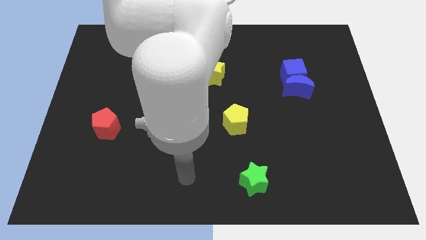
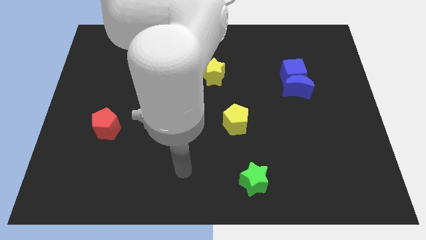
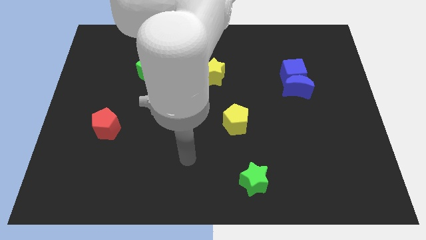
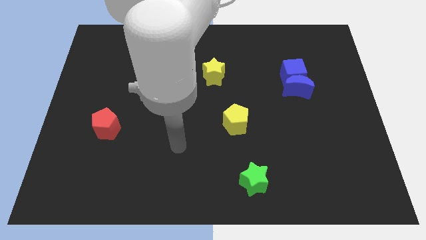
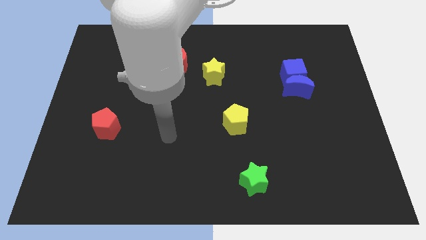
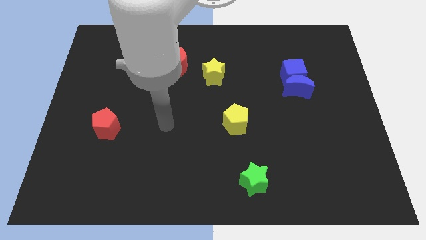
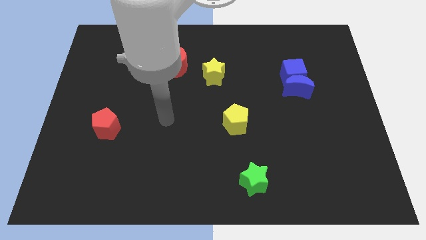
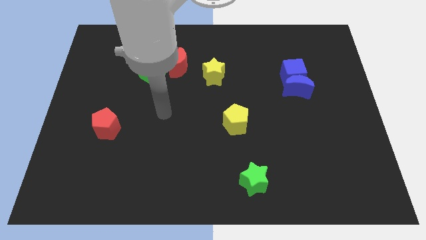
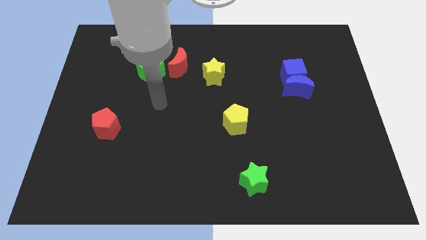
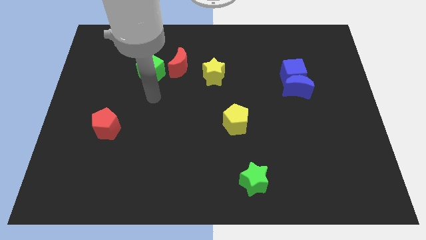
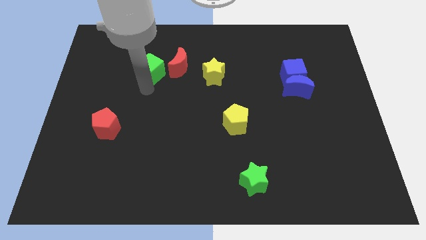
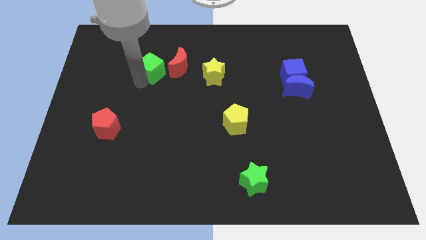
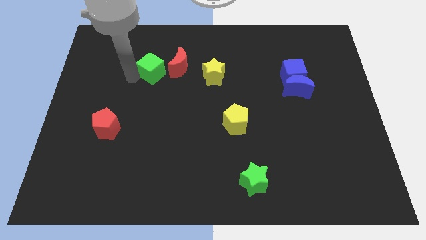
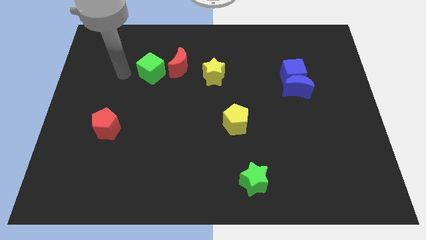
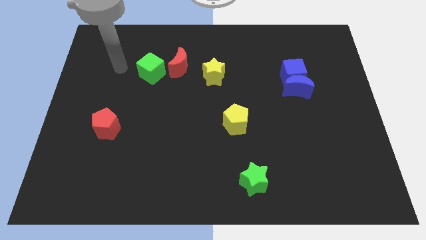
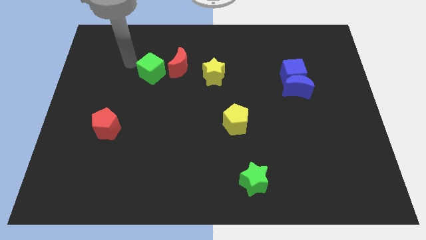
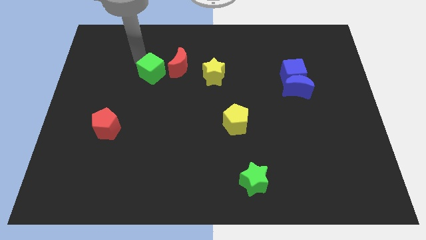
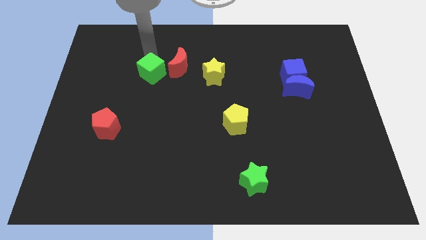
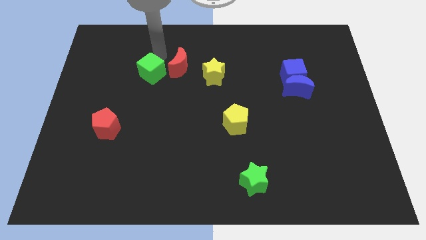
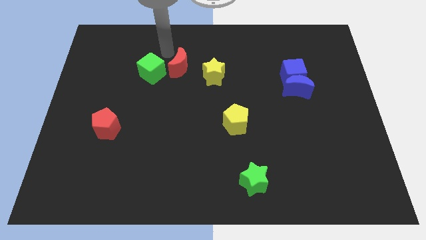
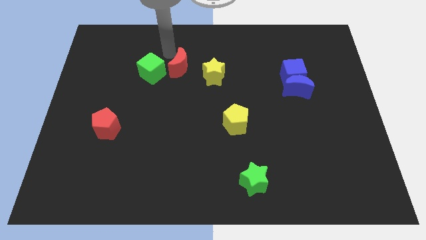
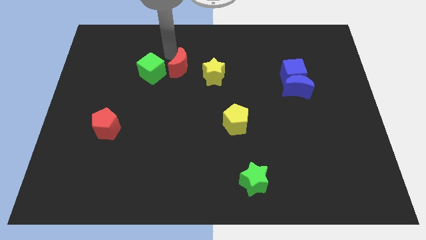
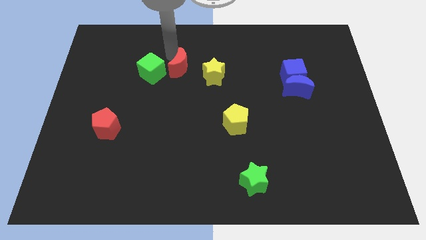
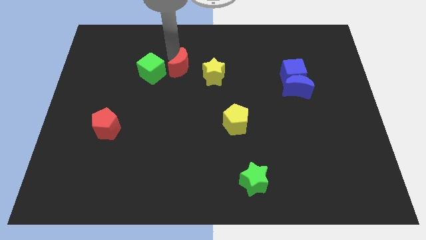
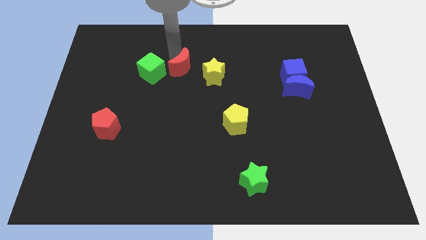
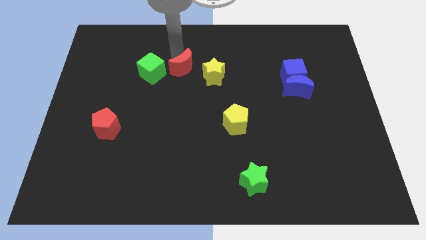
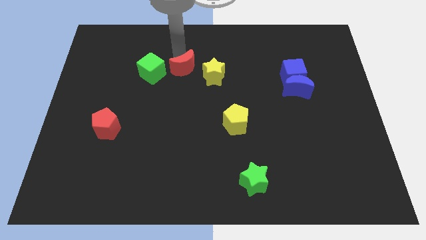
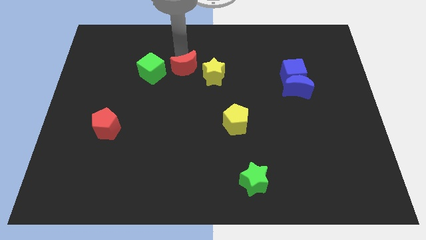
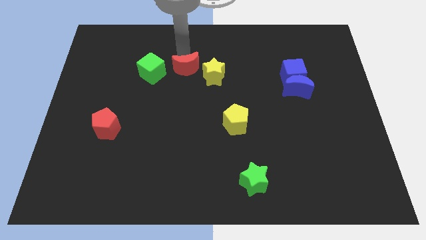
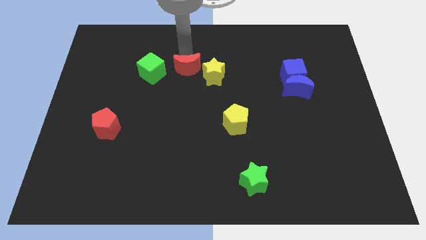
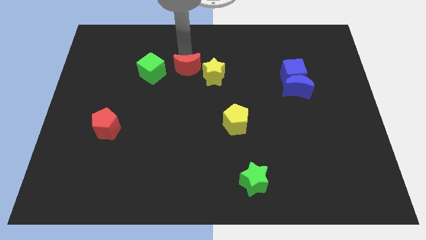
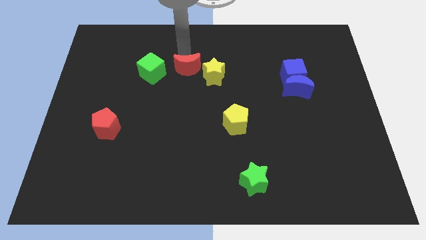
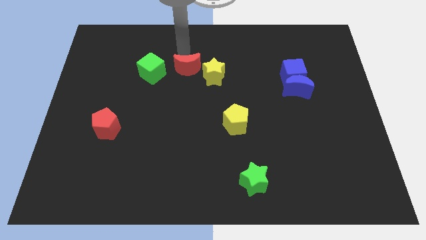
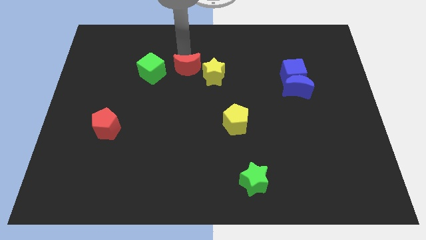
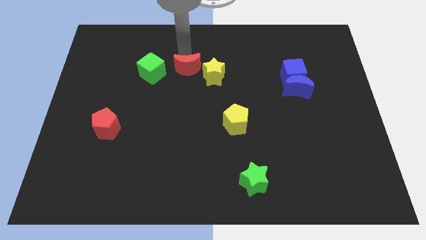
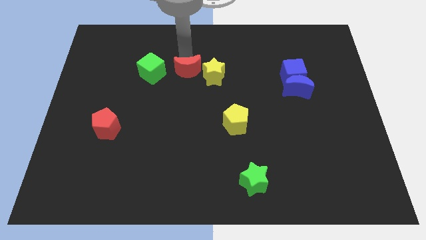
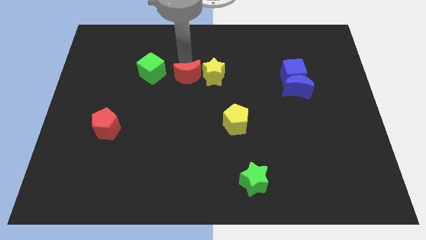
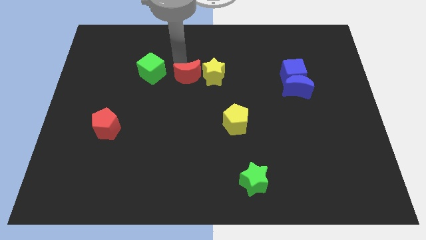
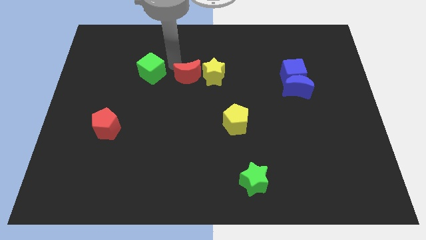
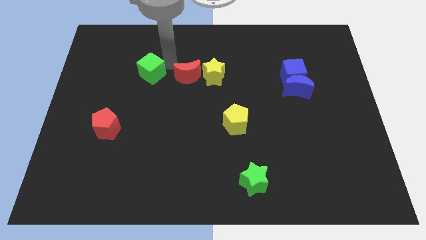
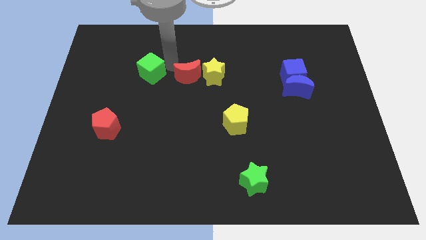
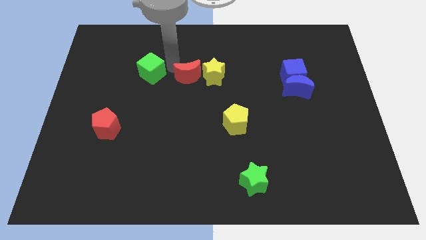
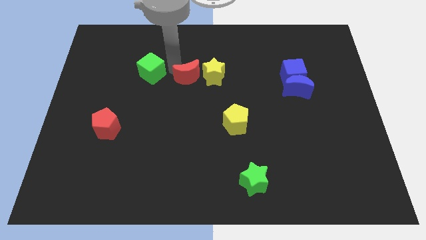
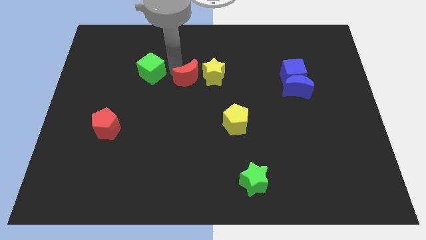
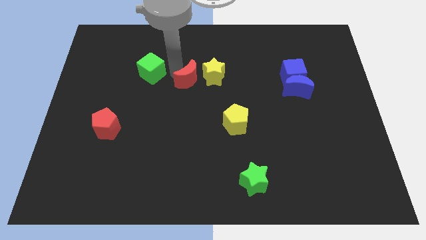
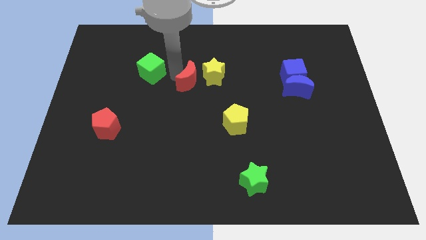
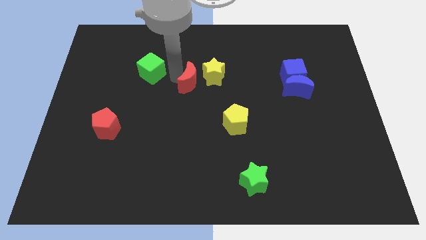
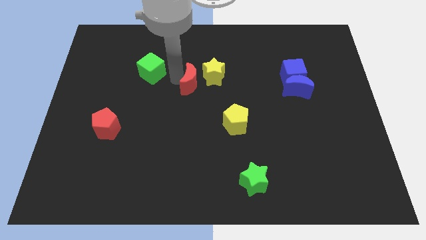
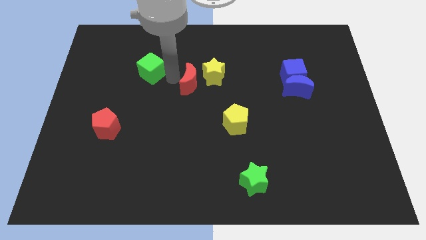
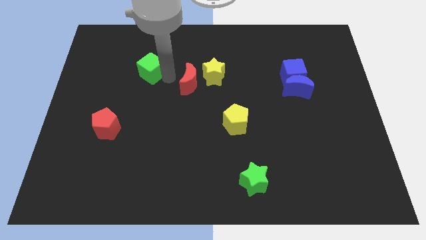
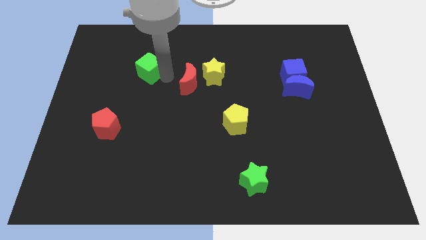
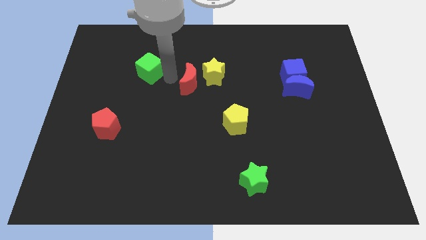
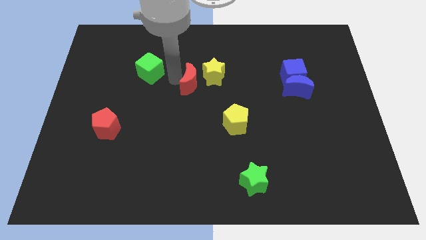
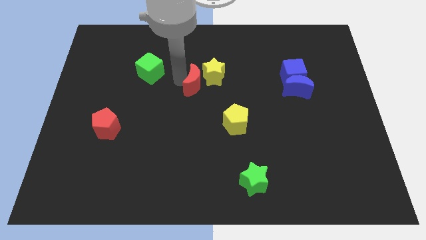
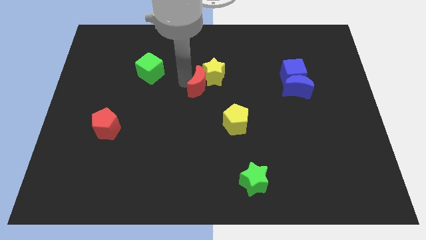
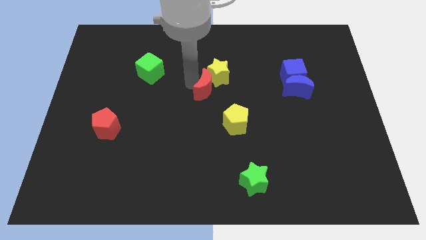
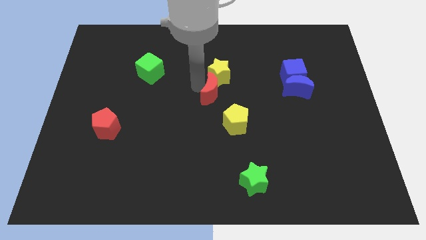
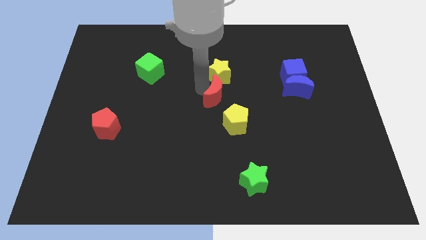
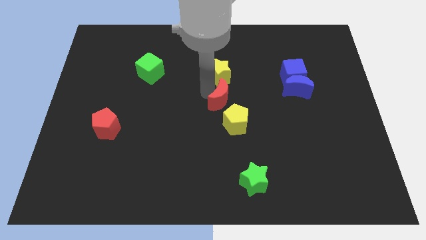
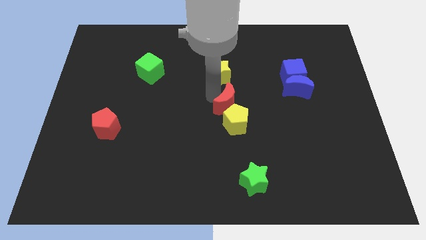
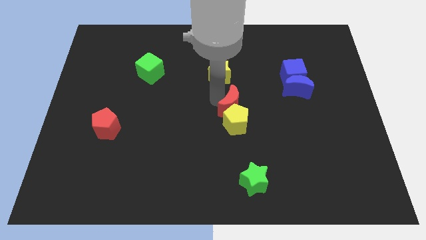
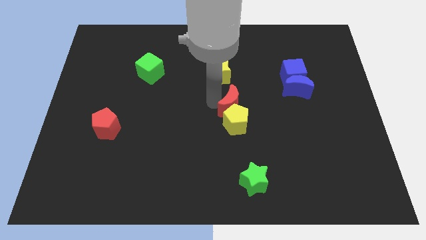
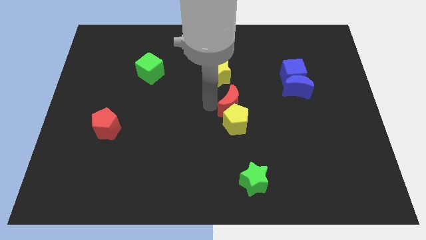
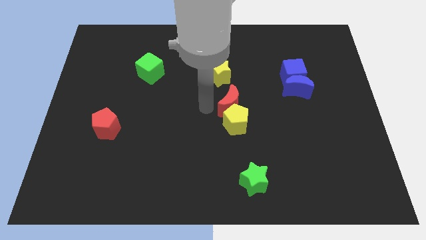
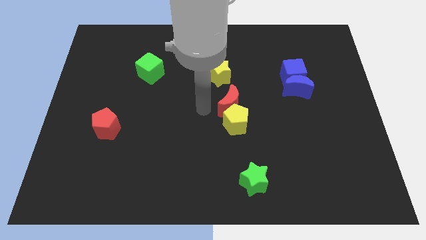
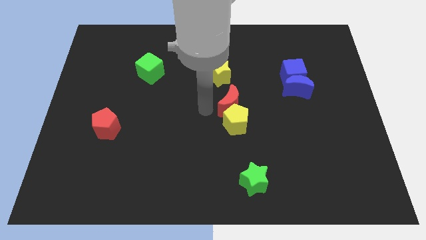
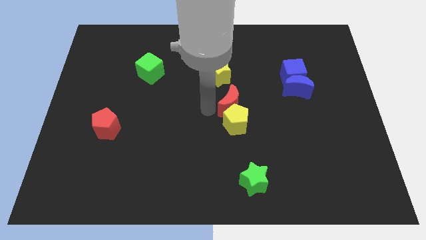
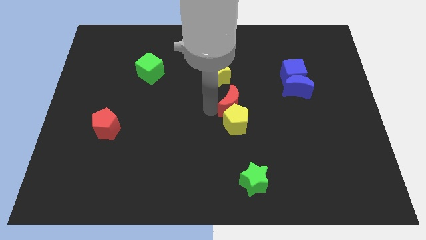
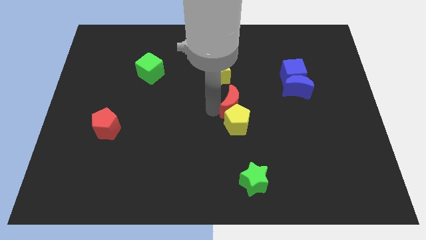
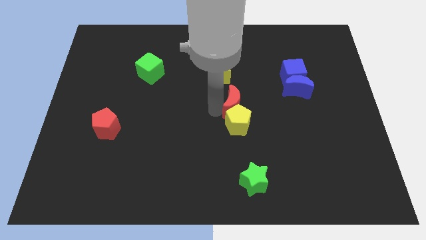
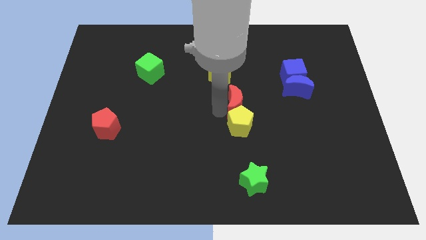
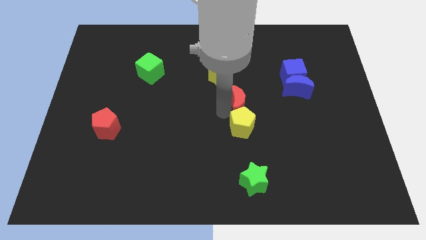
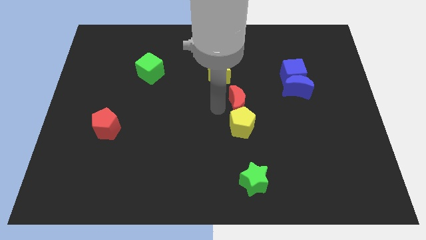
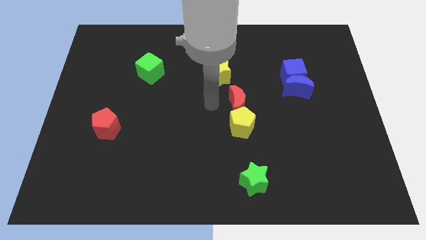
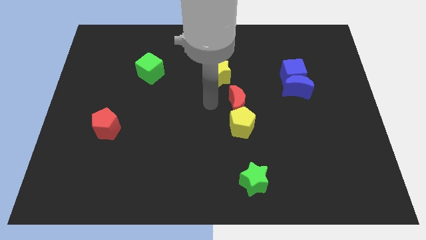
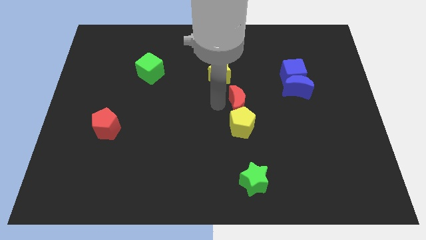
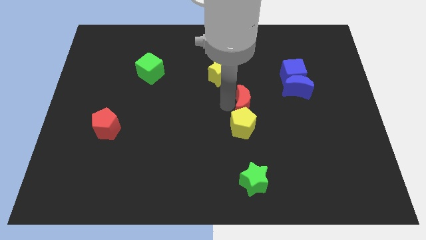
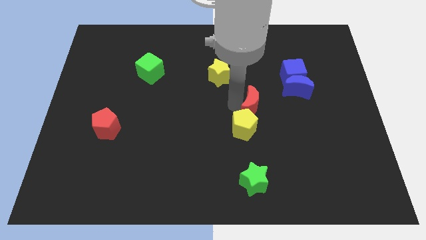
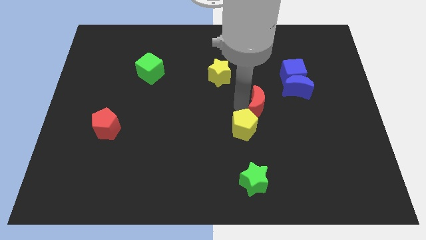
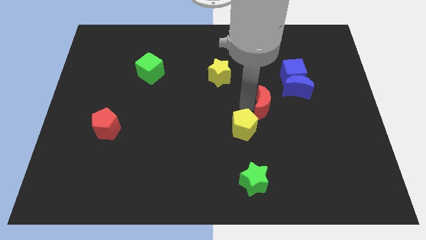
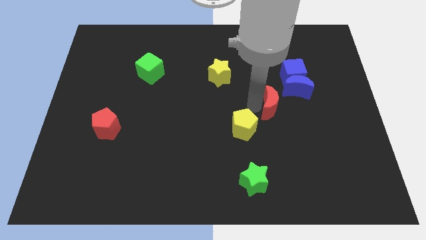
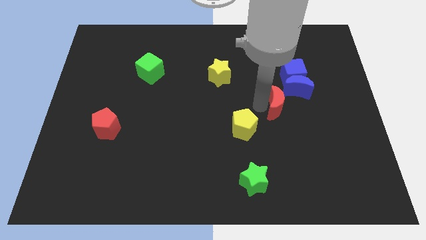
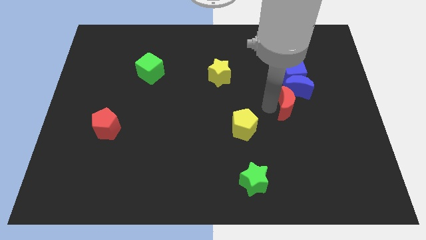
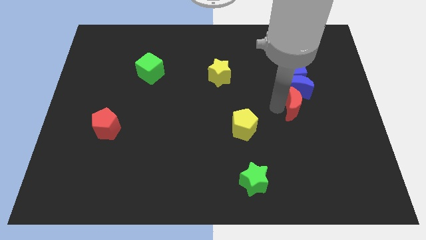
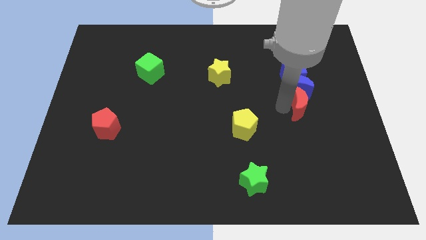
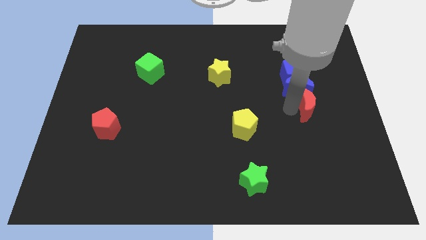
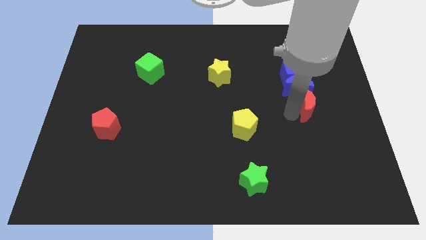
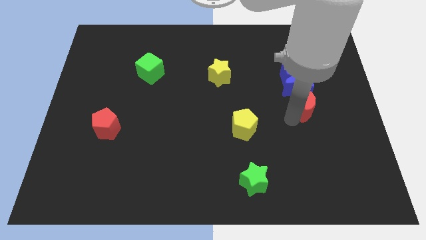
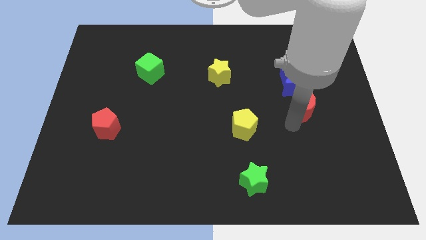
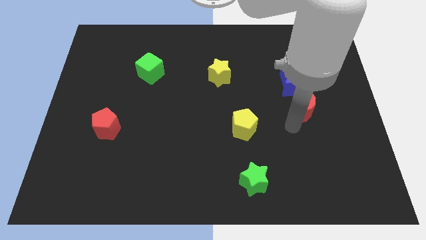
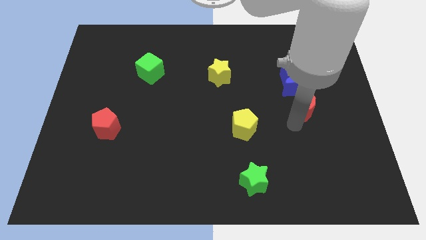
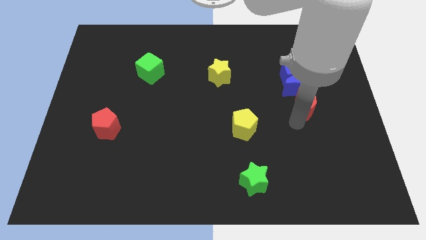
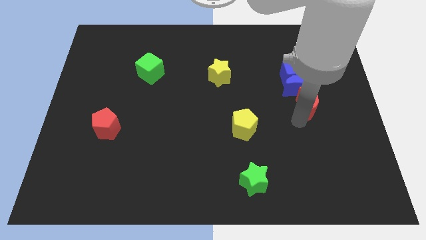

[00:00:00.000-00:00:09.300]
move the red moon to the bottom right of the blue cube
